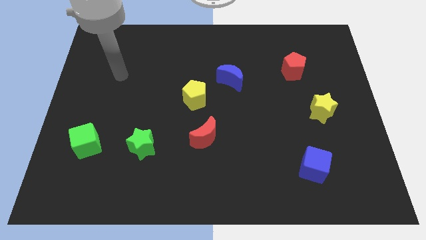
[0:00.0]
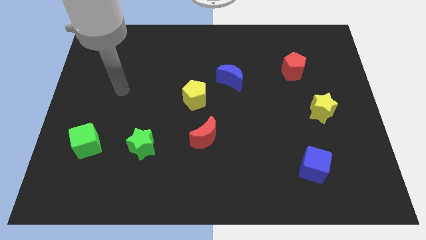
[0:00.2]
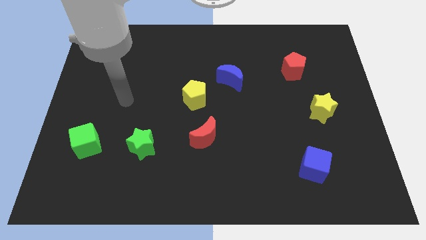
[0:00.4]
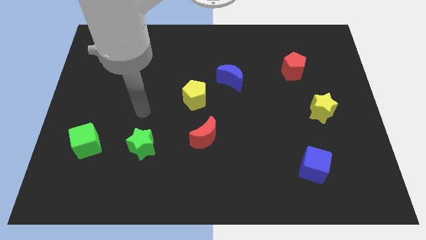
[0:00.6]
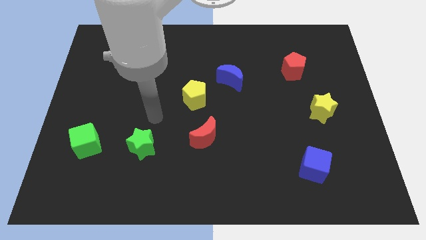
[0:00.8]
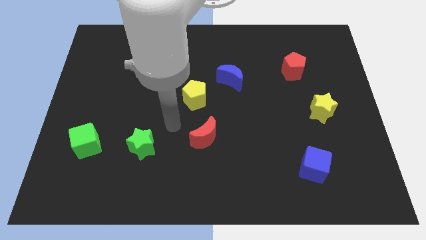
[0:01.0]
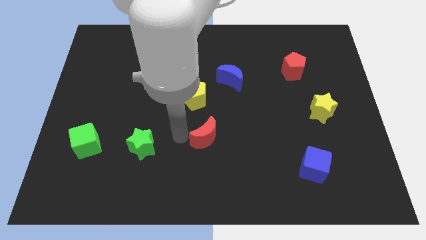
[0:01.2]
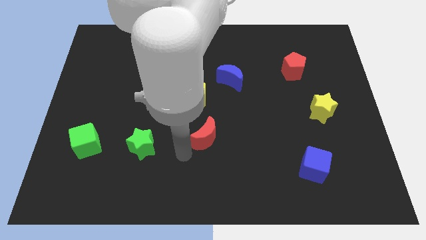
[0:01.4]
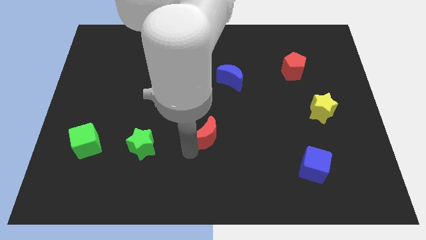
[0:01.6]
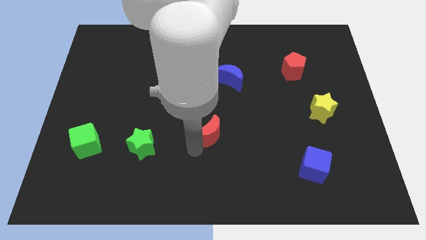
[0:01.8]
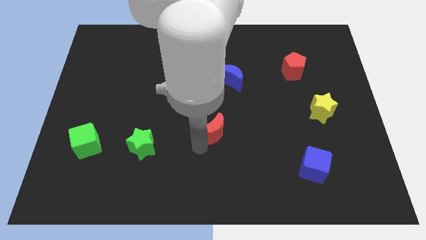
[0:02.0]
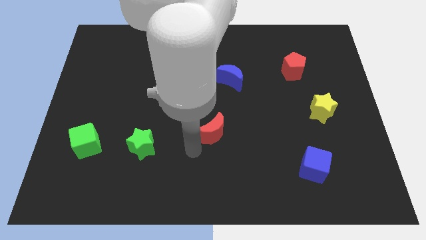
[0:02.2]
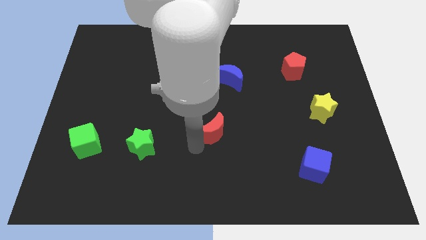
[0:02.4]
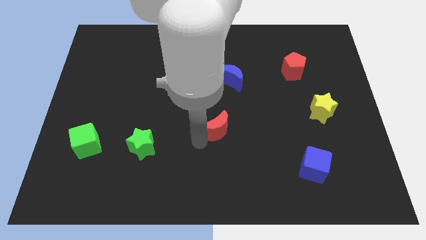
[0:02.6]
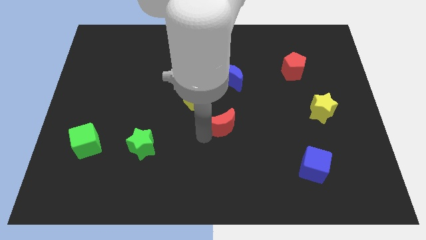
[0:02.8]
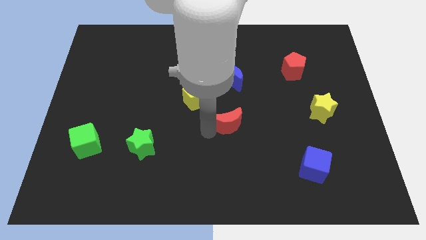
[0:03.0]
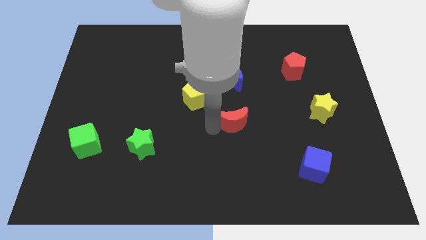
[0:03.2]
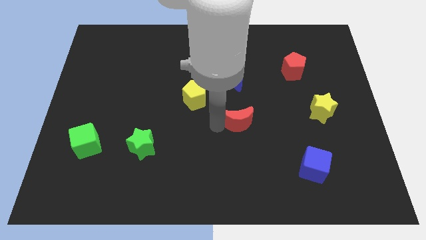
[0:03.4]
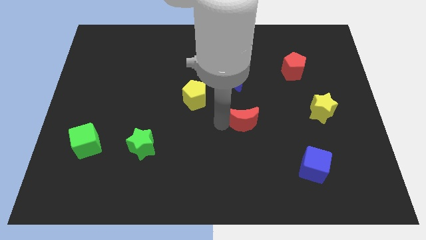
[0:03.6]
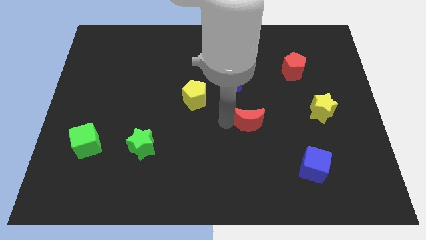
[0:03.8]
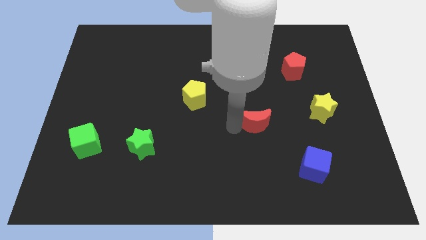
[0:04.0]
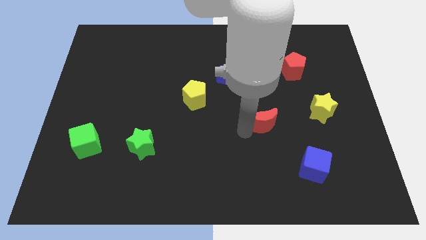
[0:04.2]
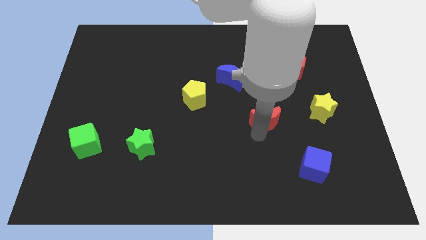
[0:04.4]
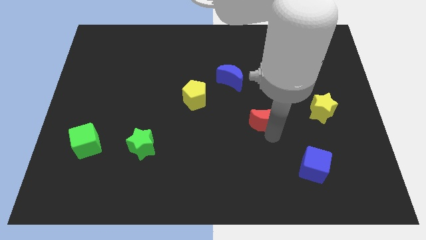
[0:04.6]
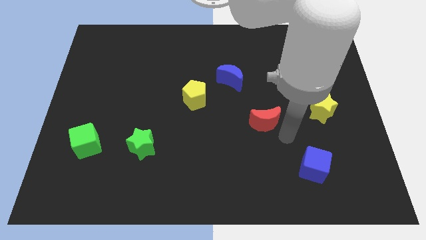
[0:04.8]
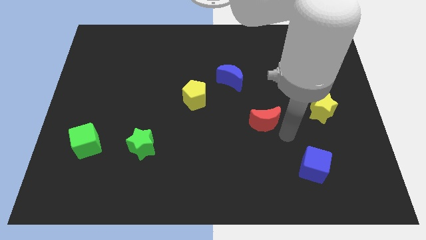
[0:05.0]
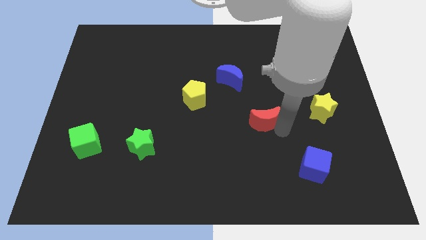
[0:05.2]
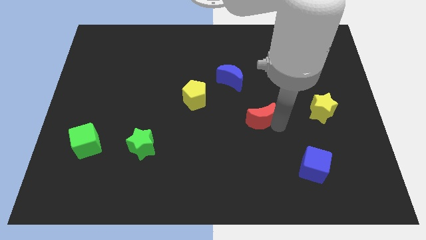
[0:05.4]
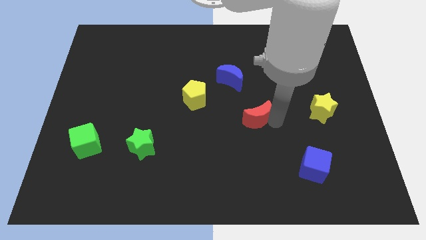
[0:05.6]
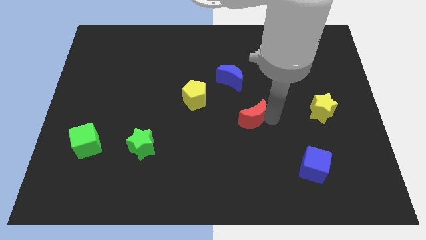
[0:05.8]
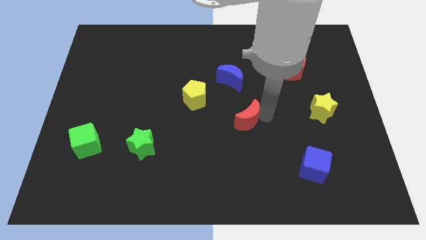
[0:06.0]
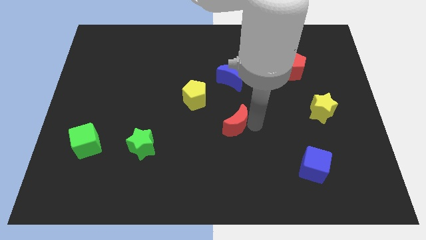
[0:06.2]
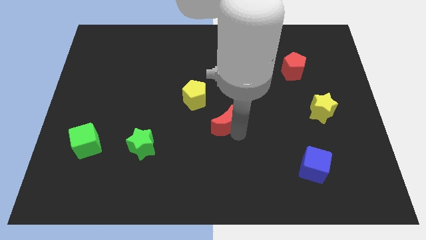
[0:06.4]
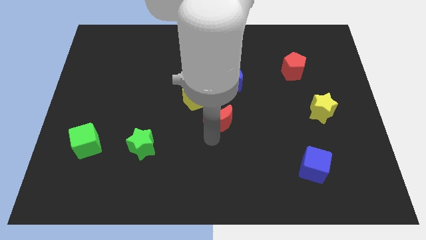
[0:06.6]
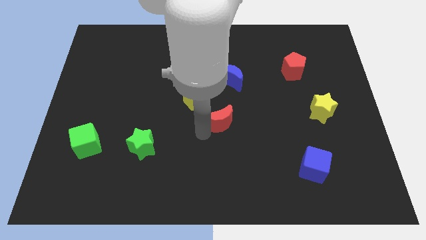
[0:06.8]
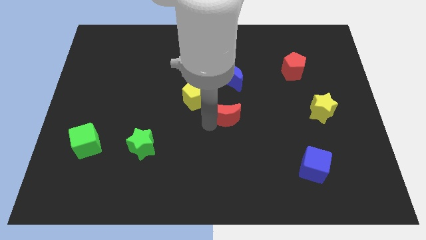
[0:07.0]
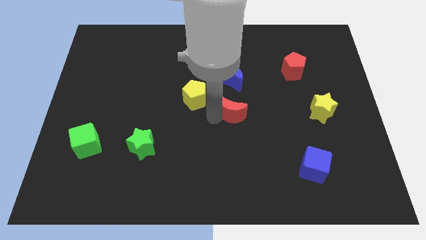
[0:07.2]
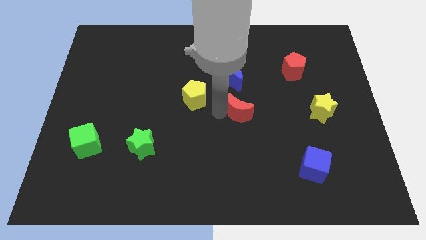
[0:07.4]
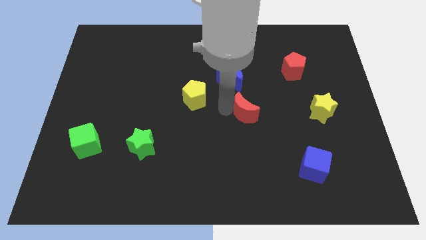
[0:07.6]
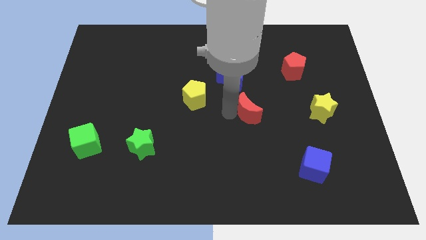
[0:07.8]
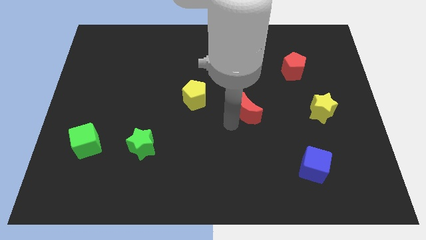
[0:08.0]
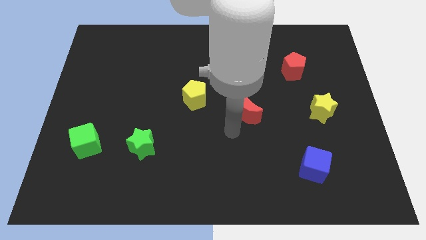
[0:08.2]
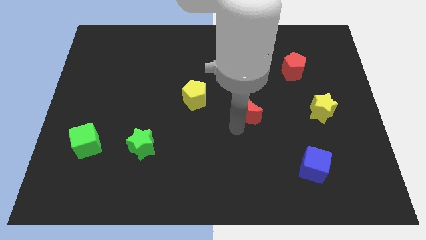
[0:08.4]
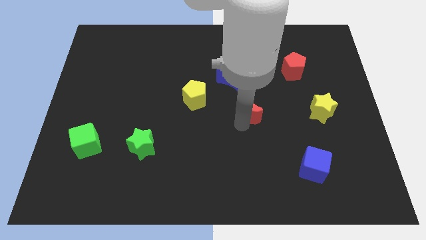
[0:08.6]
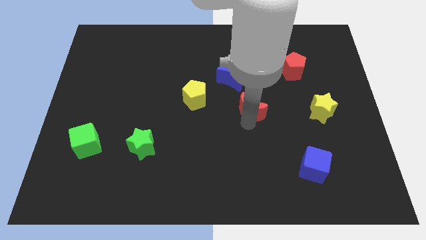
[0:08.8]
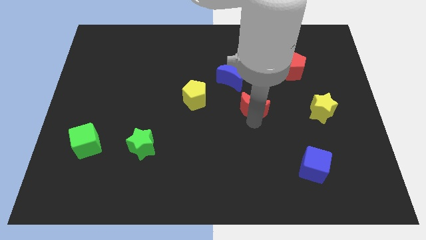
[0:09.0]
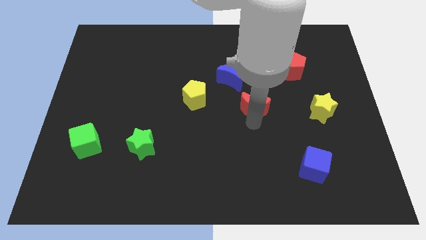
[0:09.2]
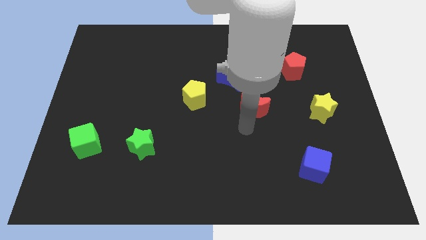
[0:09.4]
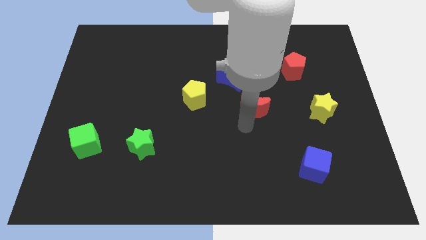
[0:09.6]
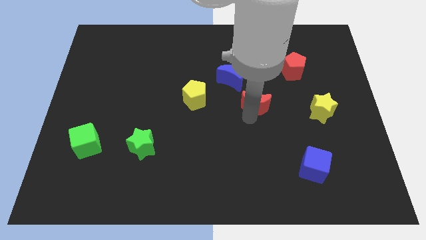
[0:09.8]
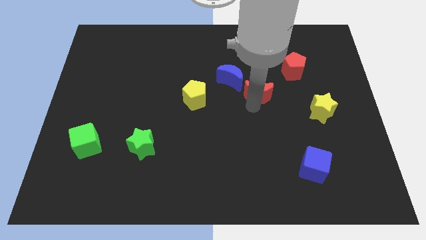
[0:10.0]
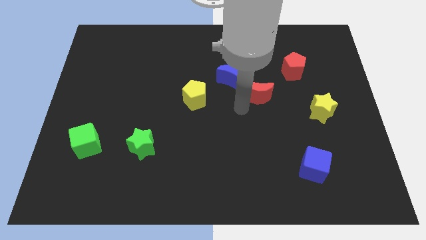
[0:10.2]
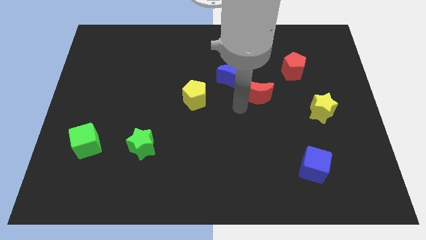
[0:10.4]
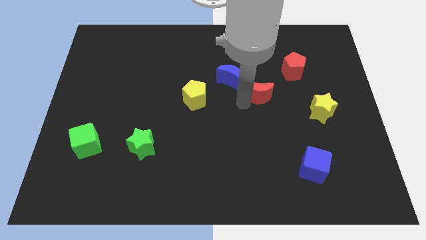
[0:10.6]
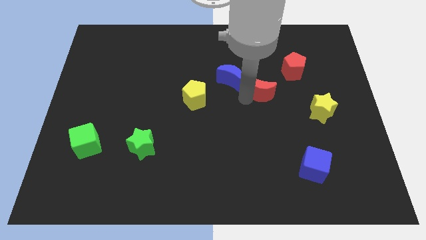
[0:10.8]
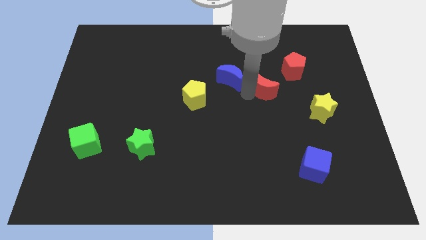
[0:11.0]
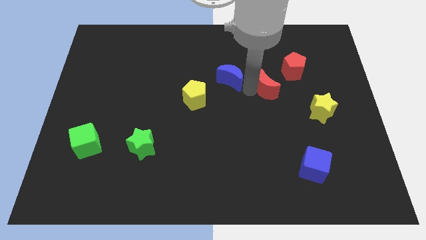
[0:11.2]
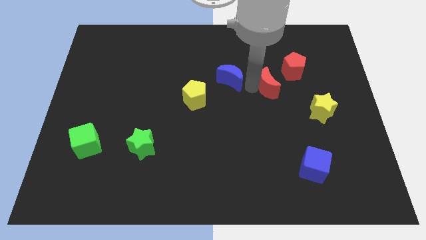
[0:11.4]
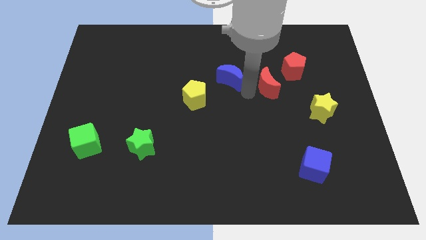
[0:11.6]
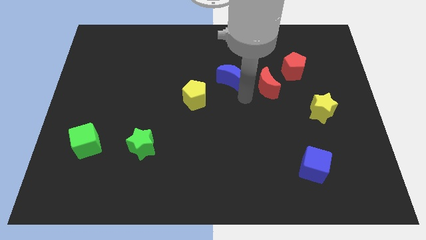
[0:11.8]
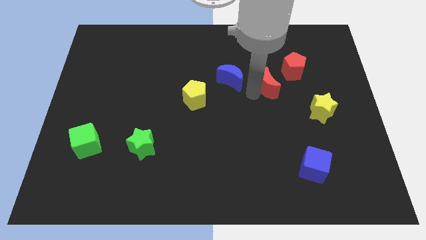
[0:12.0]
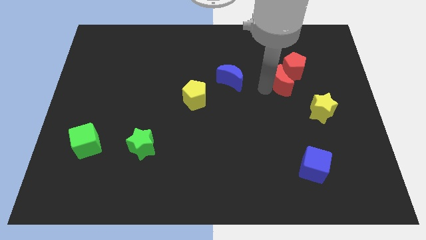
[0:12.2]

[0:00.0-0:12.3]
put the red moon to the red pentagon

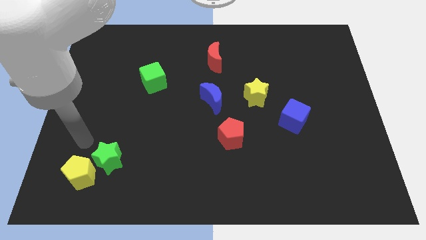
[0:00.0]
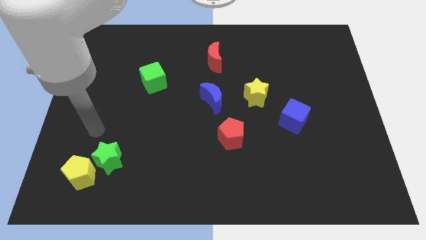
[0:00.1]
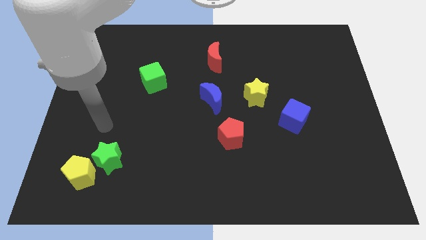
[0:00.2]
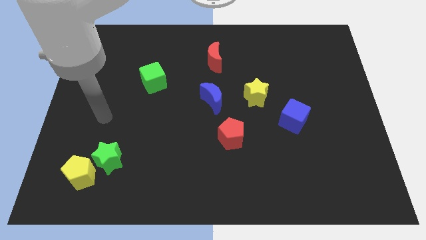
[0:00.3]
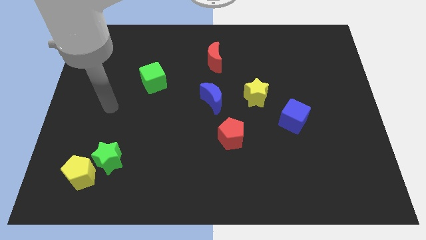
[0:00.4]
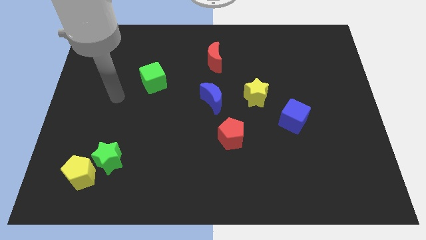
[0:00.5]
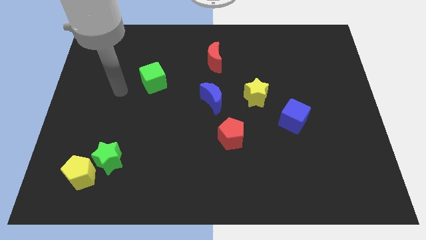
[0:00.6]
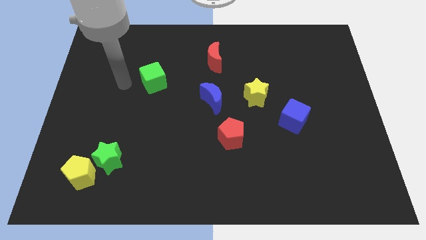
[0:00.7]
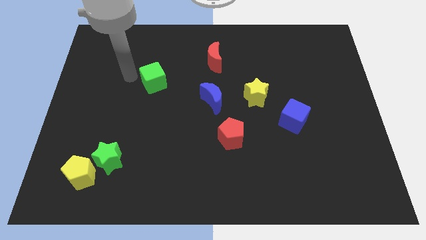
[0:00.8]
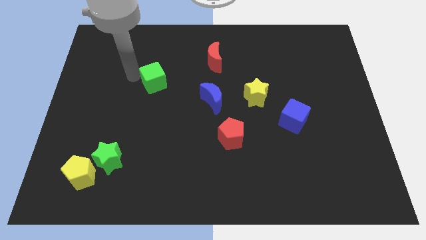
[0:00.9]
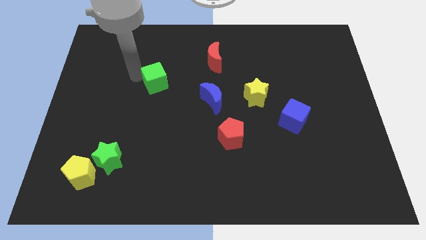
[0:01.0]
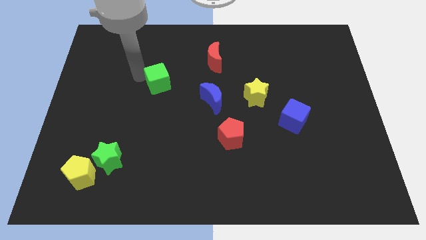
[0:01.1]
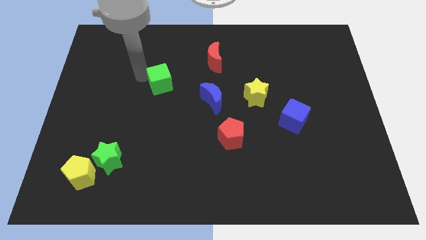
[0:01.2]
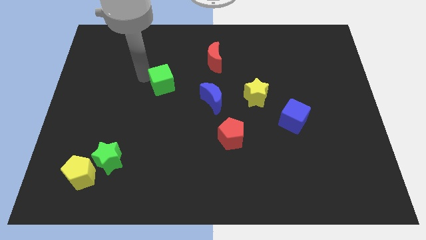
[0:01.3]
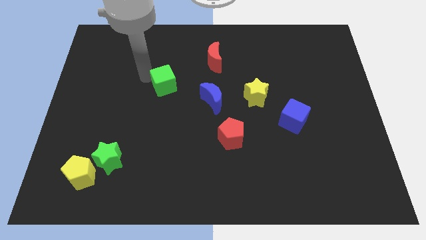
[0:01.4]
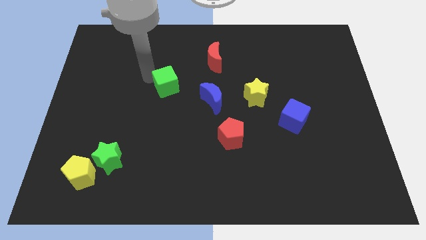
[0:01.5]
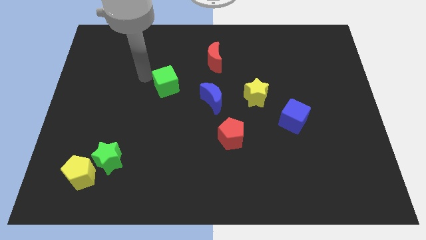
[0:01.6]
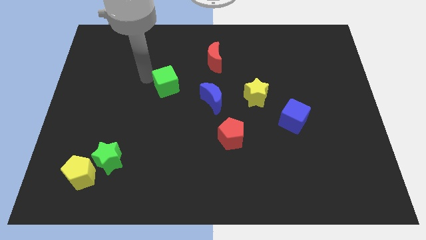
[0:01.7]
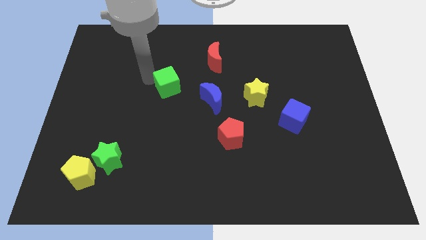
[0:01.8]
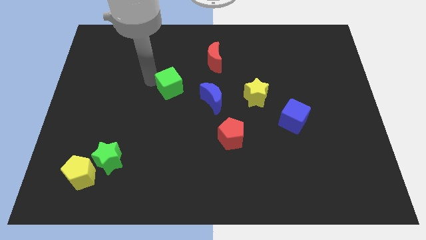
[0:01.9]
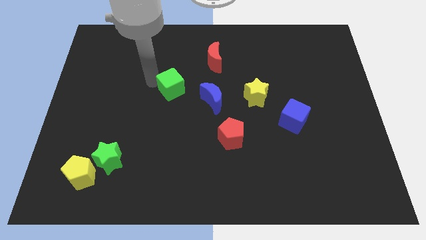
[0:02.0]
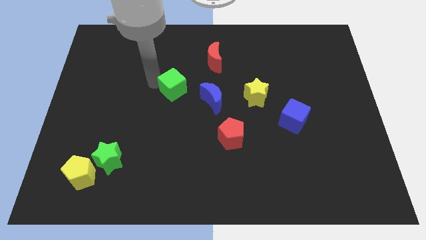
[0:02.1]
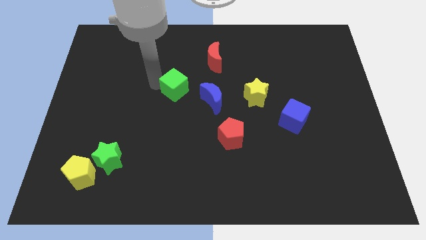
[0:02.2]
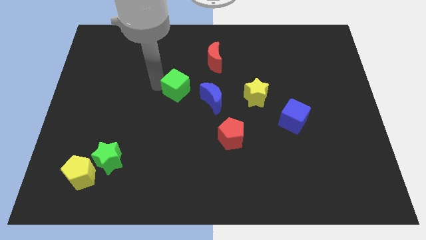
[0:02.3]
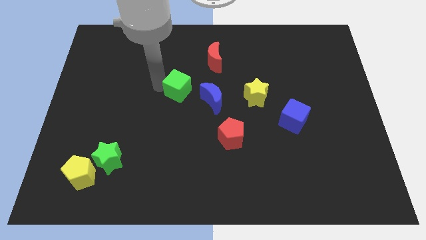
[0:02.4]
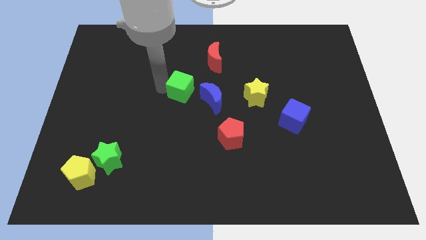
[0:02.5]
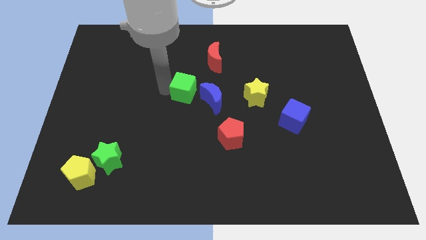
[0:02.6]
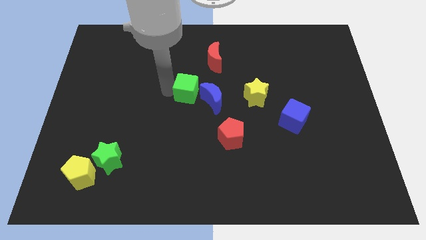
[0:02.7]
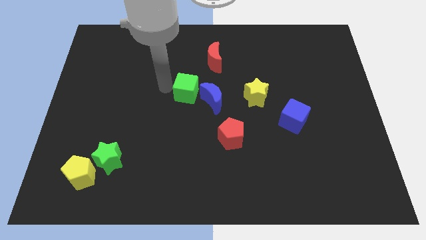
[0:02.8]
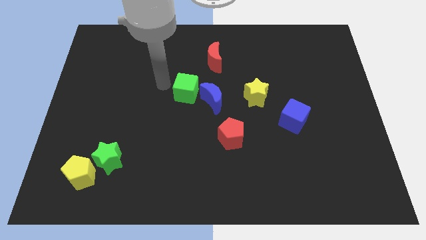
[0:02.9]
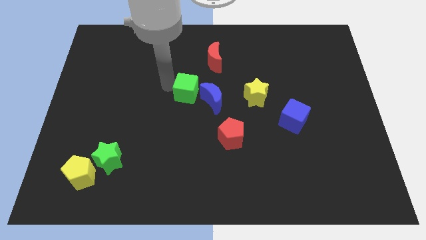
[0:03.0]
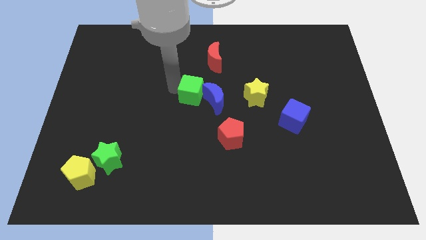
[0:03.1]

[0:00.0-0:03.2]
slide the green cube towards the blue moon
